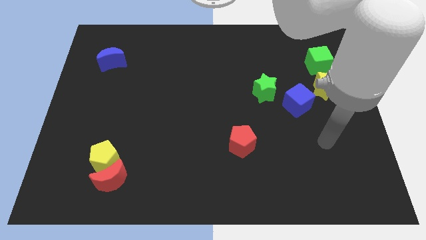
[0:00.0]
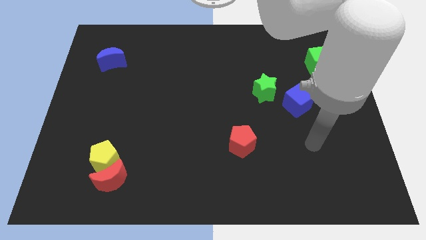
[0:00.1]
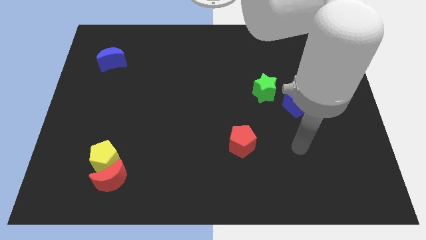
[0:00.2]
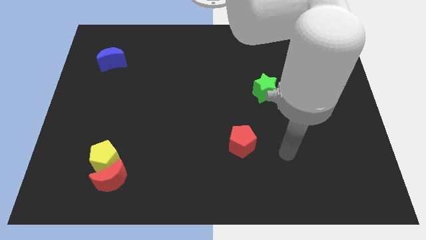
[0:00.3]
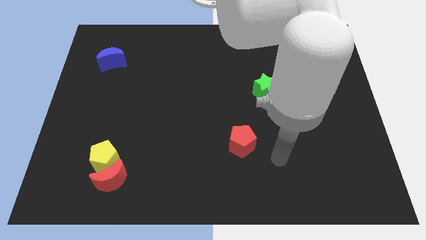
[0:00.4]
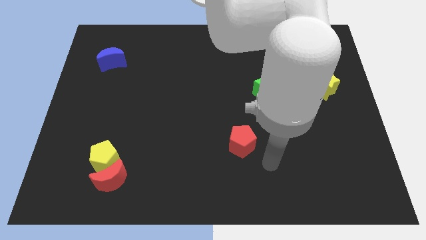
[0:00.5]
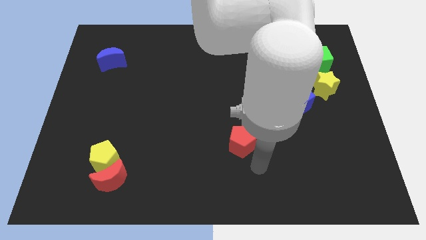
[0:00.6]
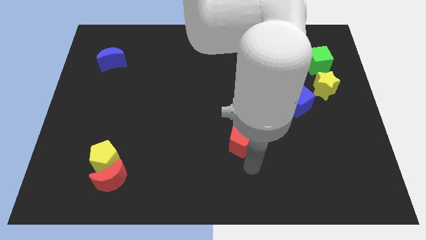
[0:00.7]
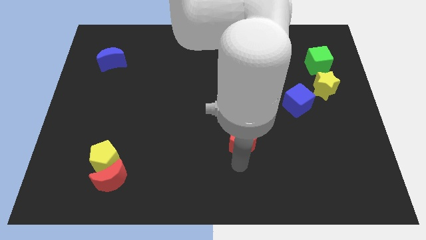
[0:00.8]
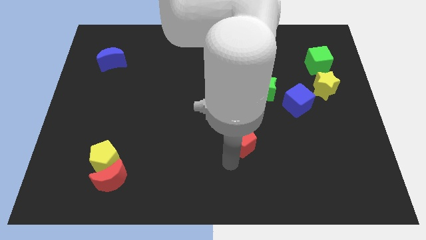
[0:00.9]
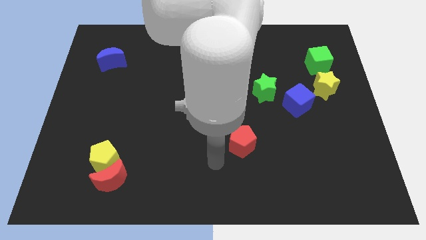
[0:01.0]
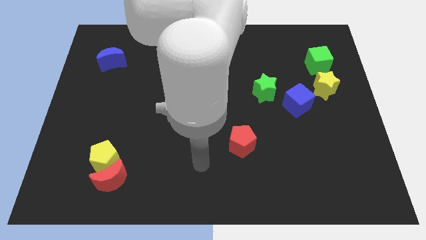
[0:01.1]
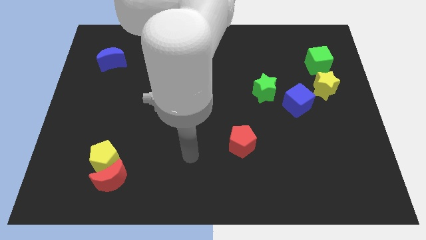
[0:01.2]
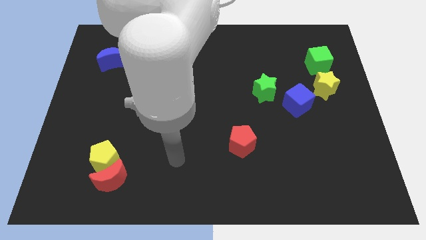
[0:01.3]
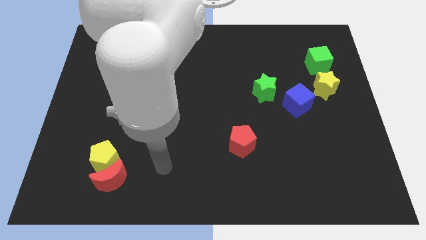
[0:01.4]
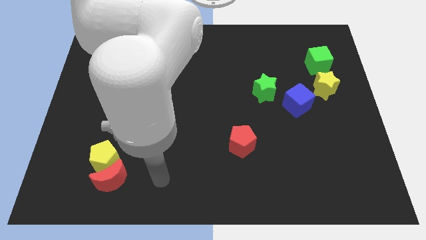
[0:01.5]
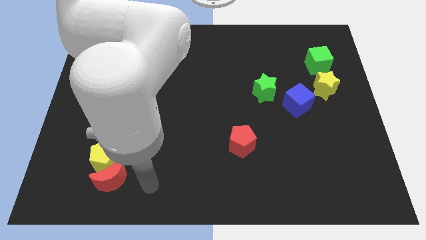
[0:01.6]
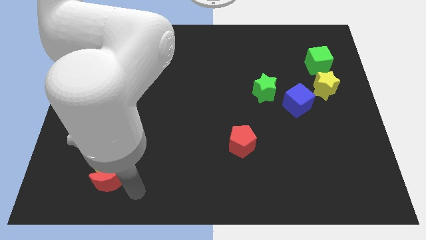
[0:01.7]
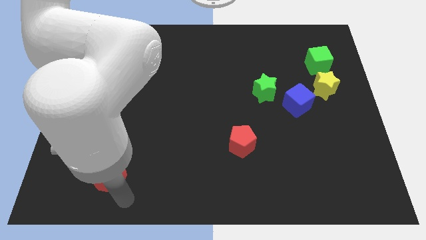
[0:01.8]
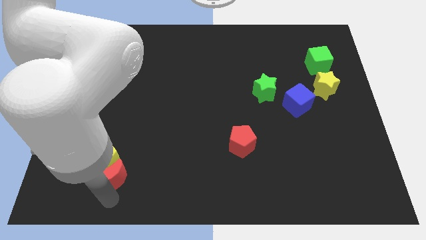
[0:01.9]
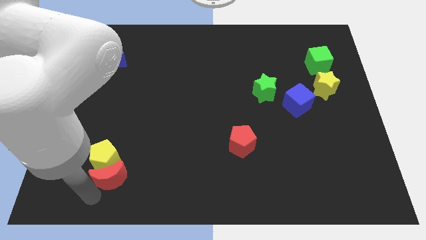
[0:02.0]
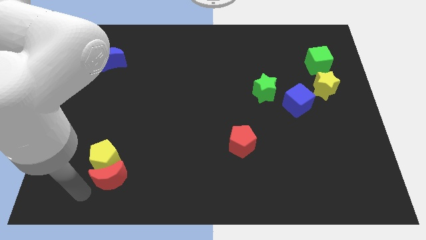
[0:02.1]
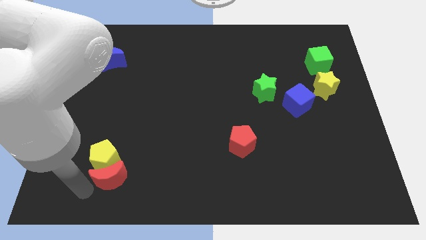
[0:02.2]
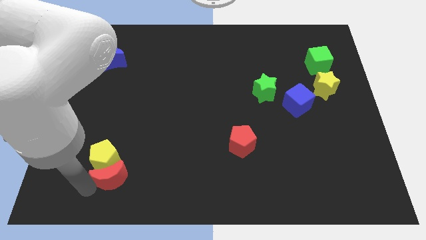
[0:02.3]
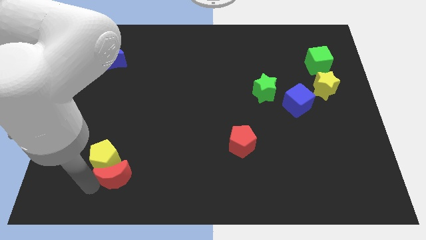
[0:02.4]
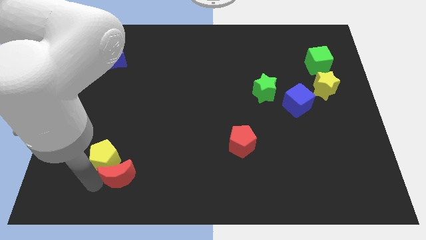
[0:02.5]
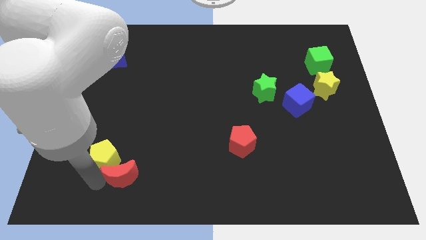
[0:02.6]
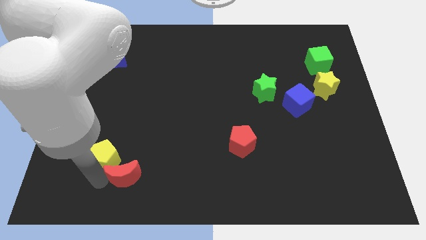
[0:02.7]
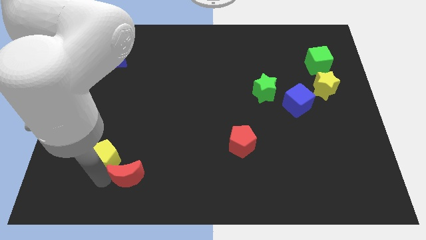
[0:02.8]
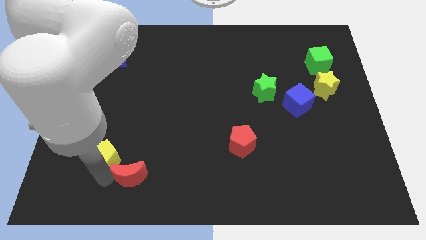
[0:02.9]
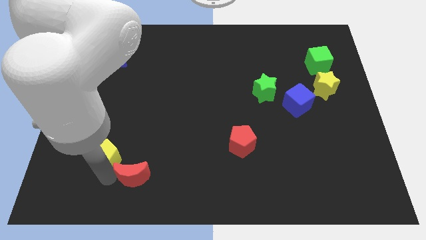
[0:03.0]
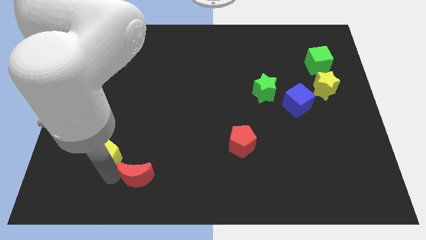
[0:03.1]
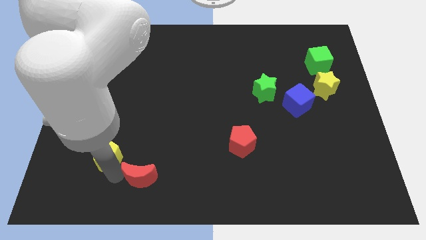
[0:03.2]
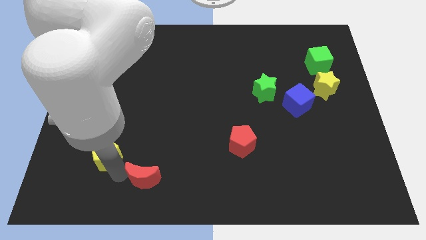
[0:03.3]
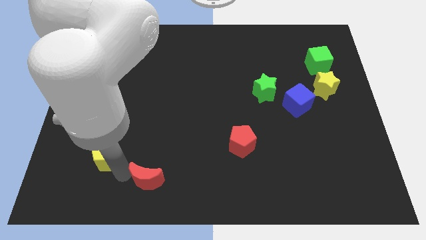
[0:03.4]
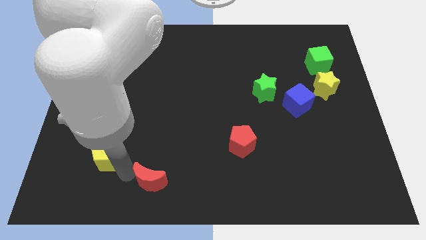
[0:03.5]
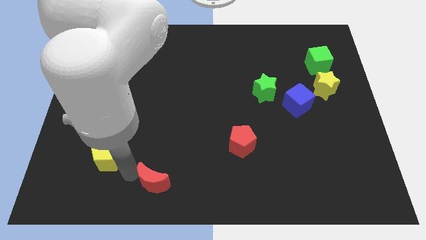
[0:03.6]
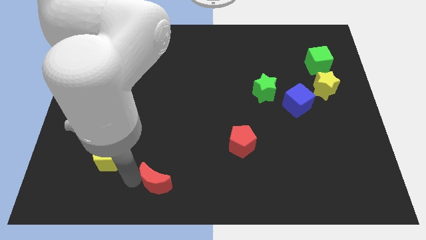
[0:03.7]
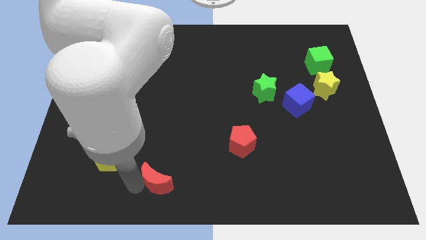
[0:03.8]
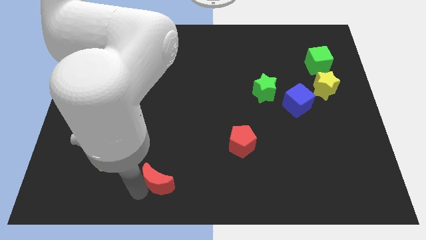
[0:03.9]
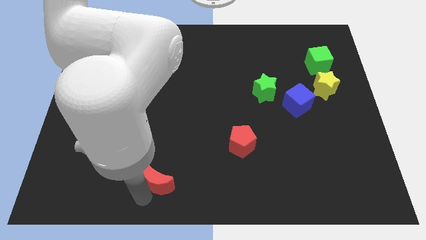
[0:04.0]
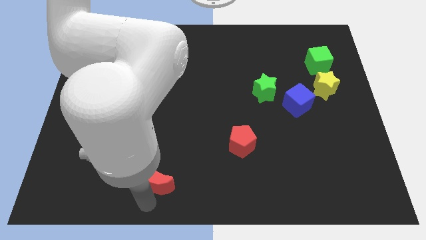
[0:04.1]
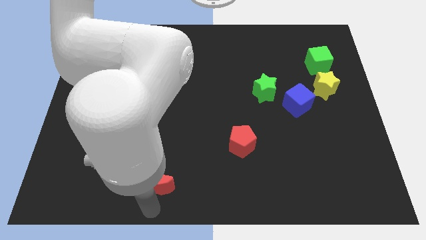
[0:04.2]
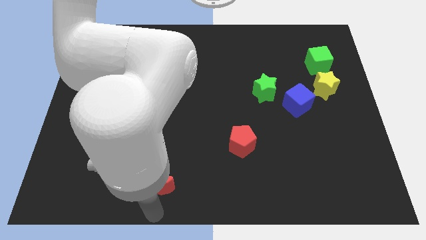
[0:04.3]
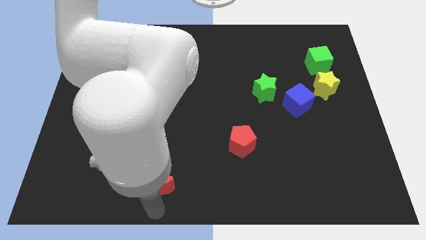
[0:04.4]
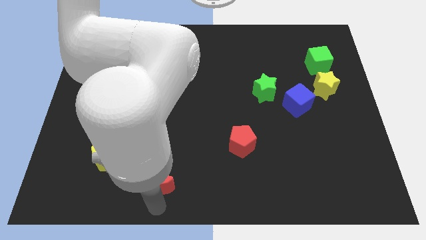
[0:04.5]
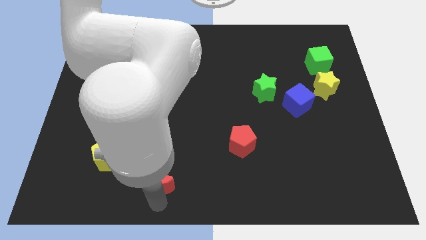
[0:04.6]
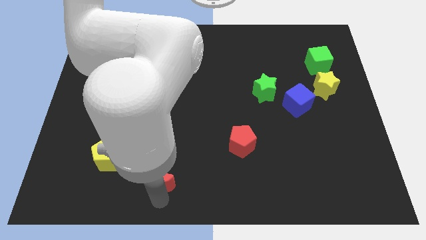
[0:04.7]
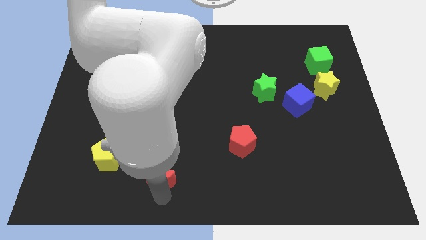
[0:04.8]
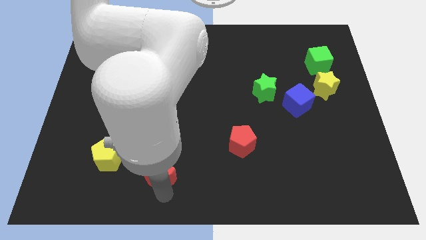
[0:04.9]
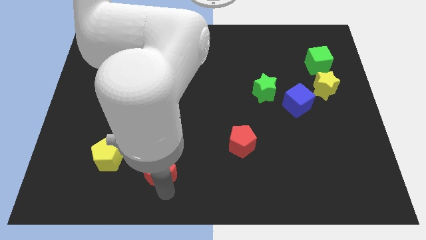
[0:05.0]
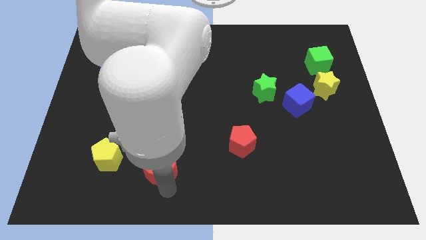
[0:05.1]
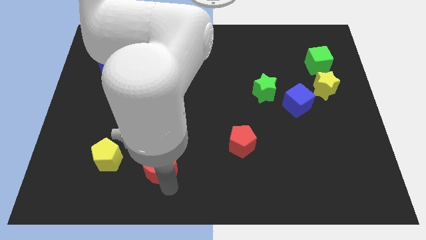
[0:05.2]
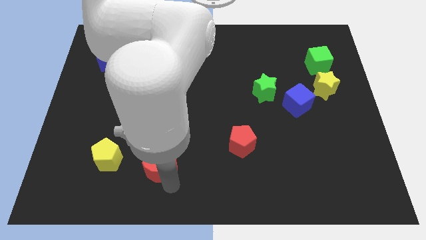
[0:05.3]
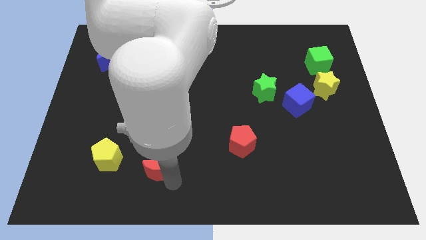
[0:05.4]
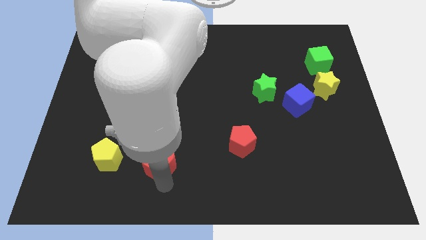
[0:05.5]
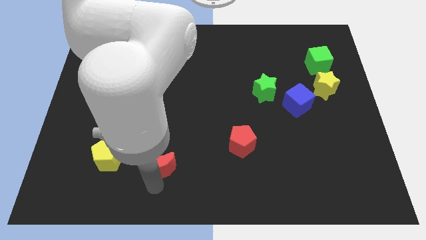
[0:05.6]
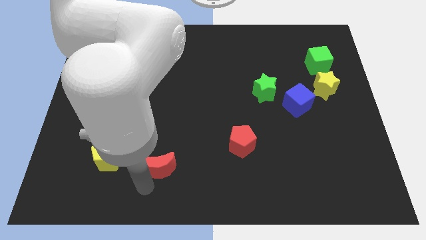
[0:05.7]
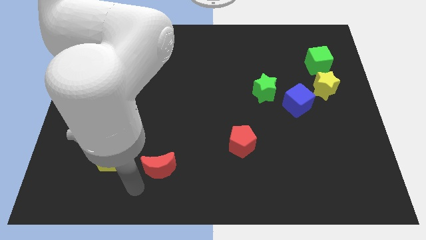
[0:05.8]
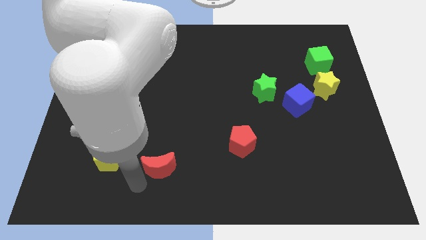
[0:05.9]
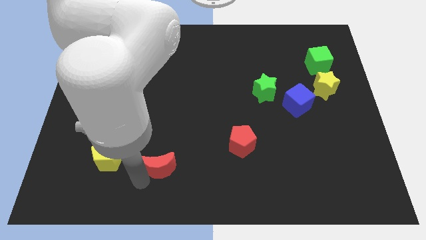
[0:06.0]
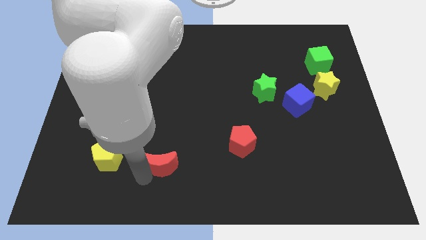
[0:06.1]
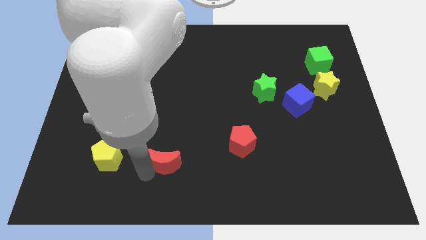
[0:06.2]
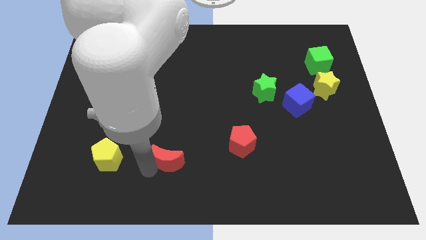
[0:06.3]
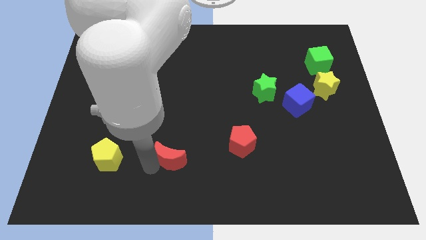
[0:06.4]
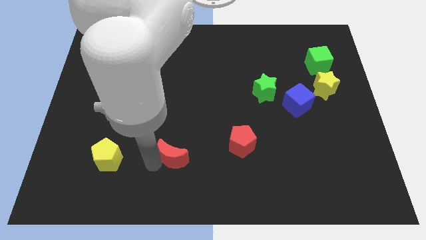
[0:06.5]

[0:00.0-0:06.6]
put the red moon to the left of the red pentagon
